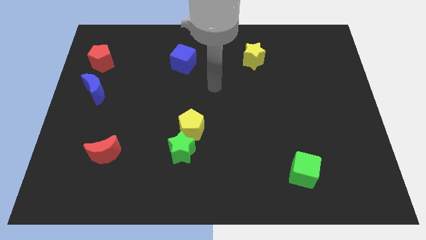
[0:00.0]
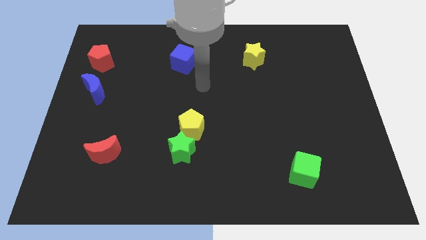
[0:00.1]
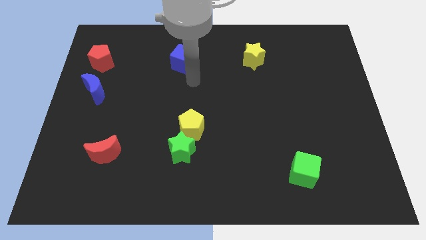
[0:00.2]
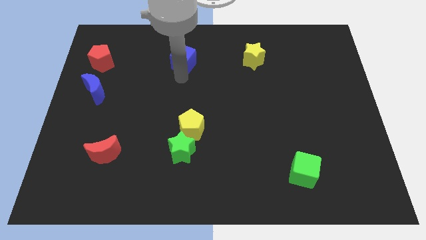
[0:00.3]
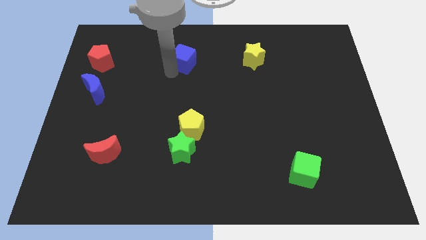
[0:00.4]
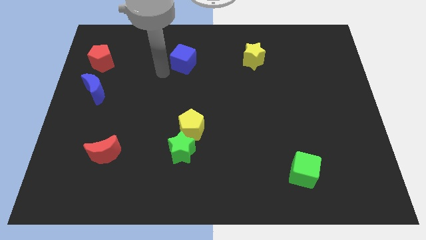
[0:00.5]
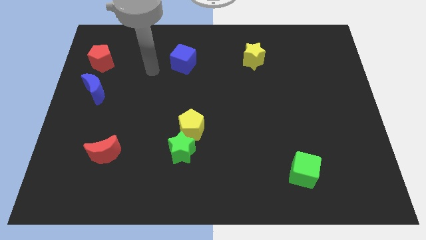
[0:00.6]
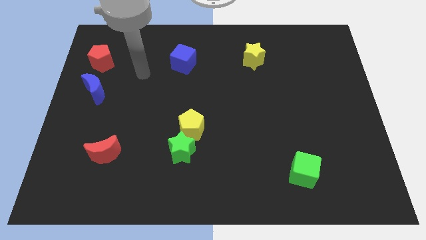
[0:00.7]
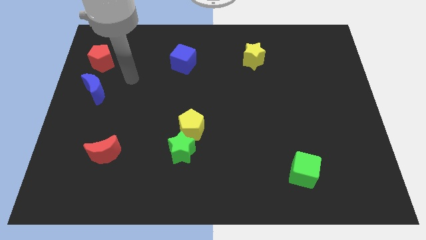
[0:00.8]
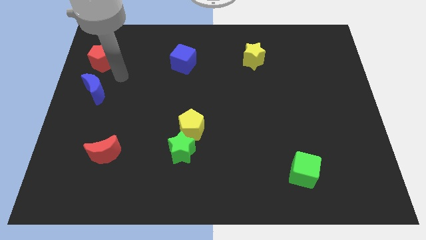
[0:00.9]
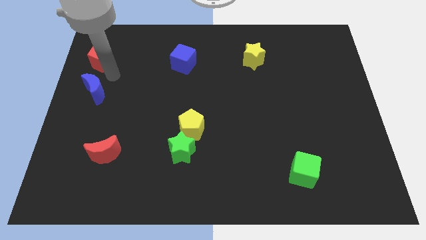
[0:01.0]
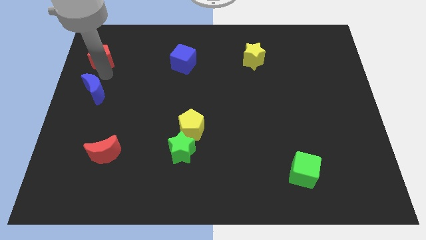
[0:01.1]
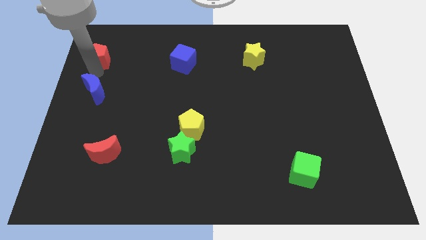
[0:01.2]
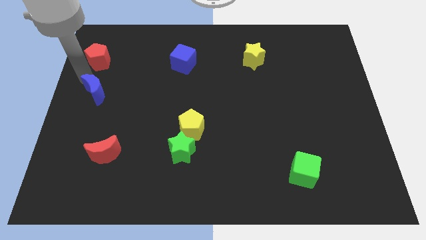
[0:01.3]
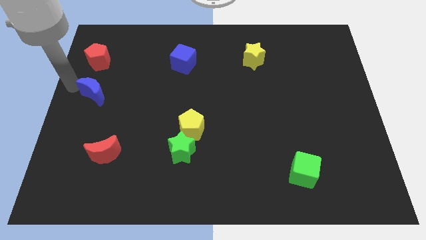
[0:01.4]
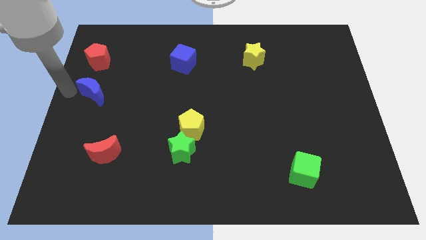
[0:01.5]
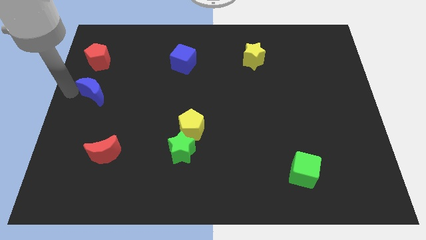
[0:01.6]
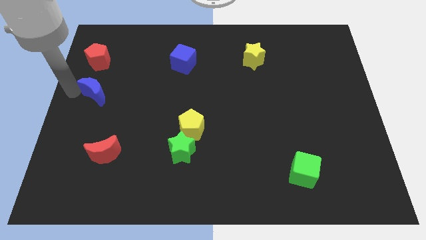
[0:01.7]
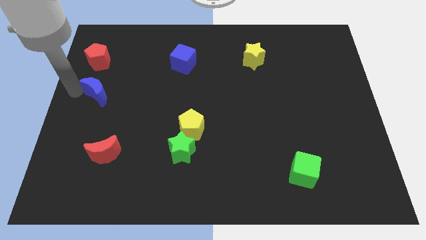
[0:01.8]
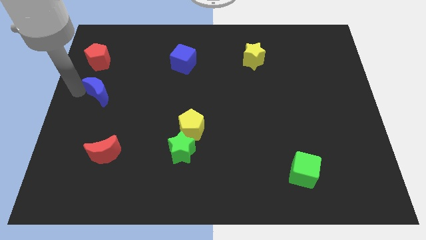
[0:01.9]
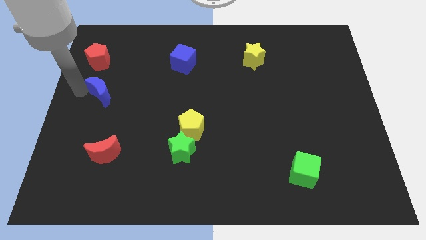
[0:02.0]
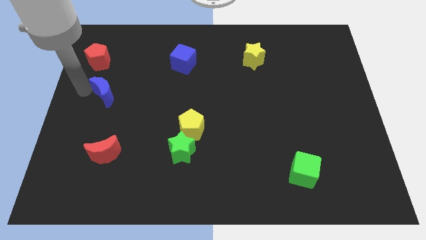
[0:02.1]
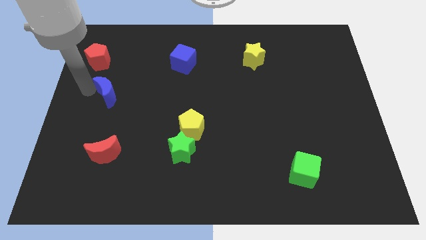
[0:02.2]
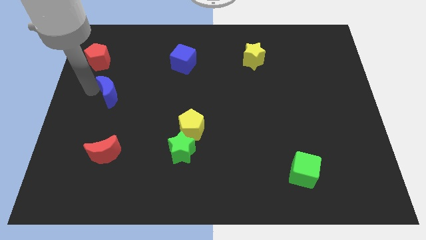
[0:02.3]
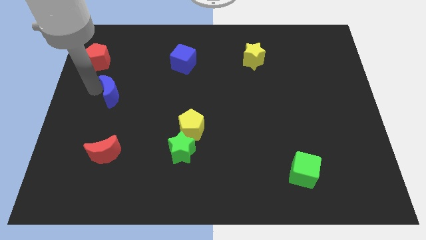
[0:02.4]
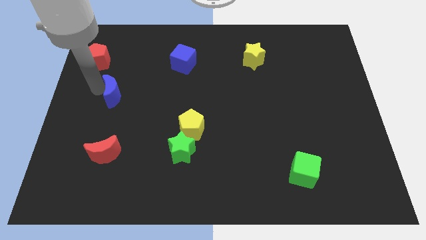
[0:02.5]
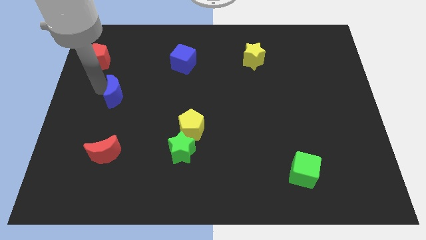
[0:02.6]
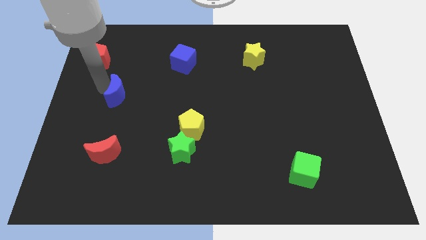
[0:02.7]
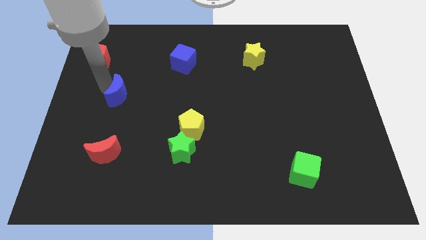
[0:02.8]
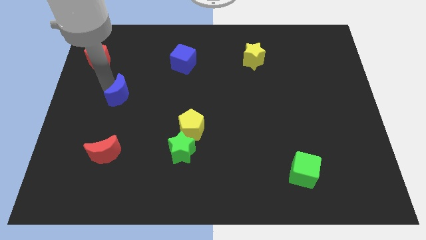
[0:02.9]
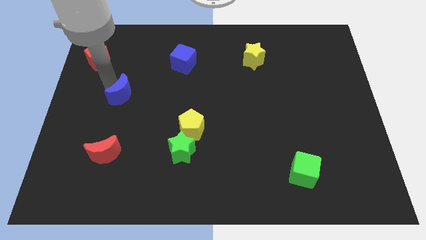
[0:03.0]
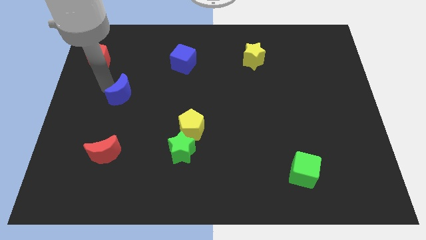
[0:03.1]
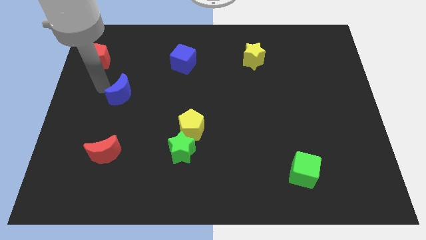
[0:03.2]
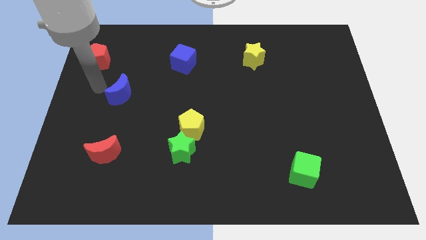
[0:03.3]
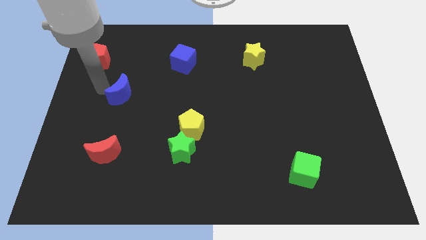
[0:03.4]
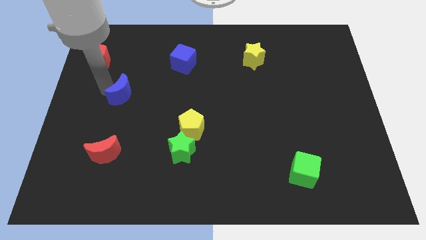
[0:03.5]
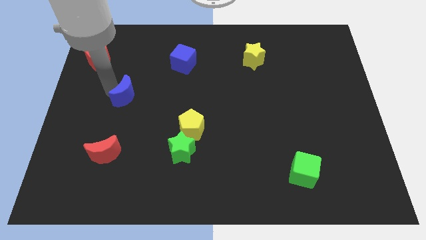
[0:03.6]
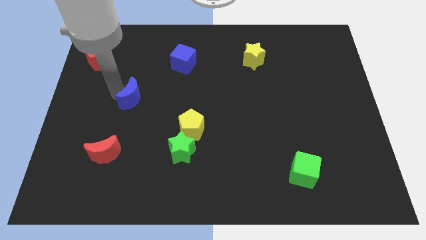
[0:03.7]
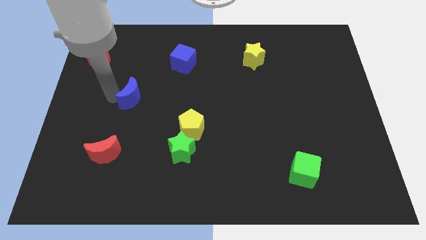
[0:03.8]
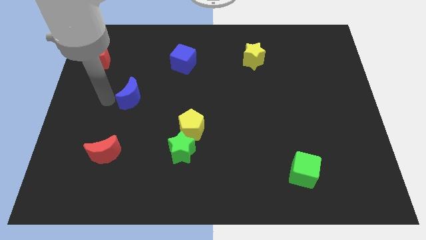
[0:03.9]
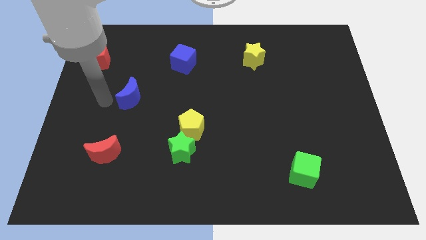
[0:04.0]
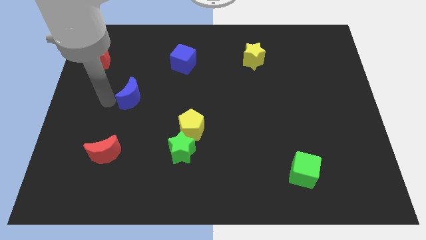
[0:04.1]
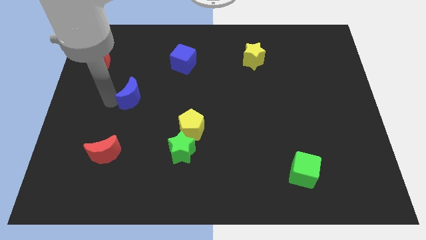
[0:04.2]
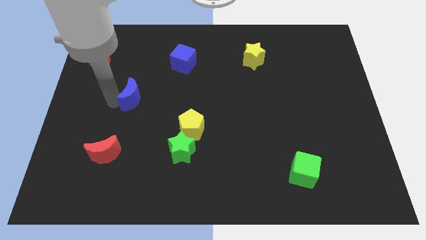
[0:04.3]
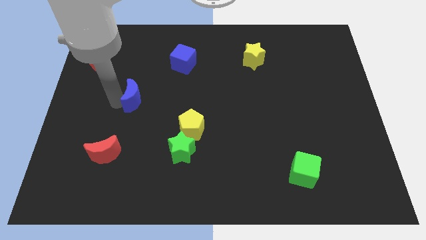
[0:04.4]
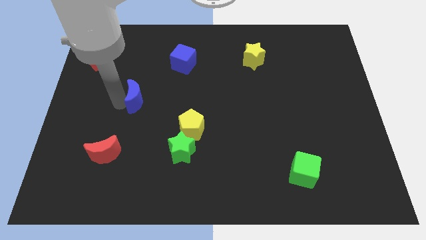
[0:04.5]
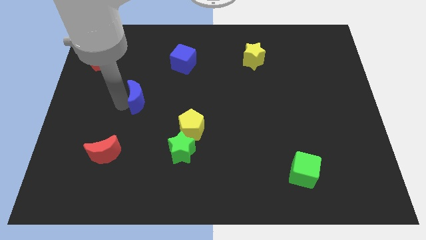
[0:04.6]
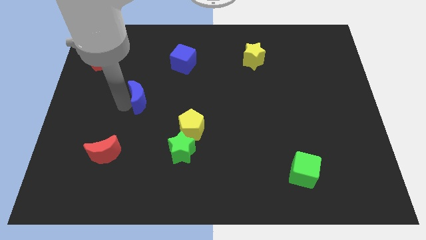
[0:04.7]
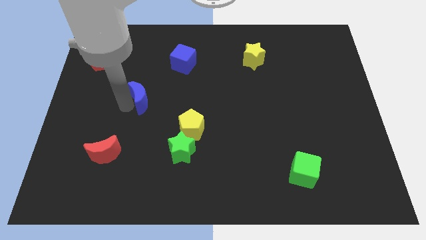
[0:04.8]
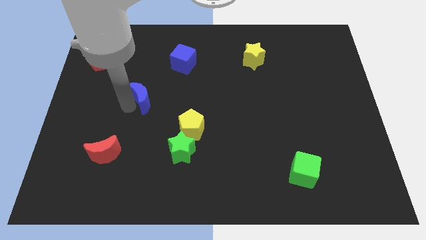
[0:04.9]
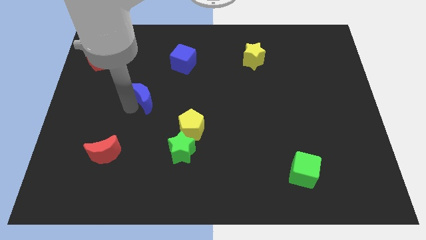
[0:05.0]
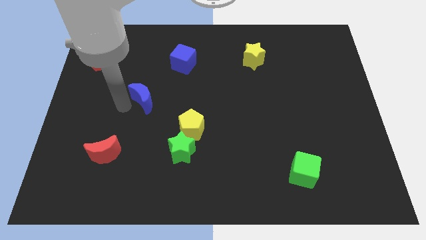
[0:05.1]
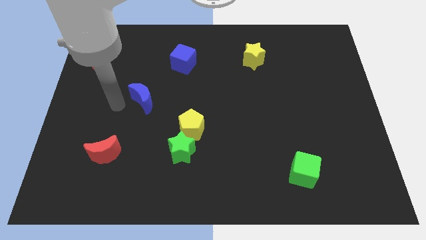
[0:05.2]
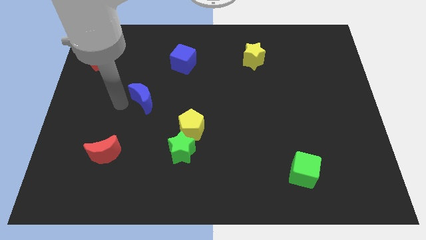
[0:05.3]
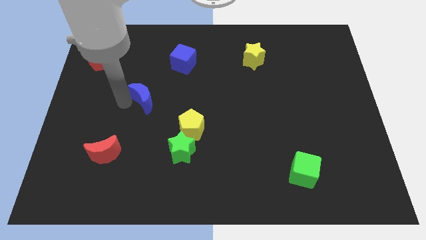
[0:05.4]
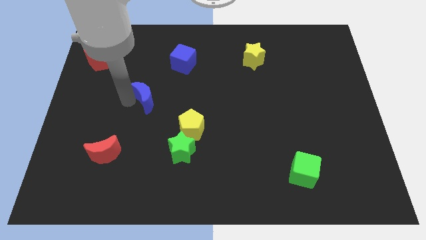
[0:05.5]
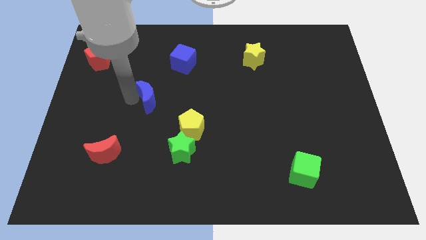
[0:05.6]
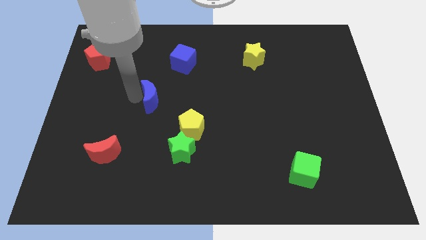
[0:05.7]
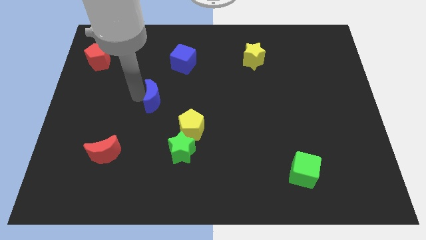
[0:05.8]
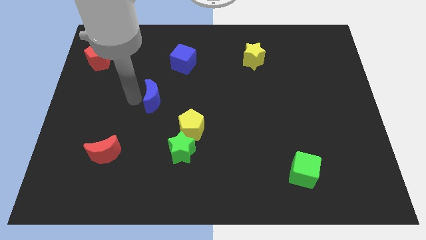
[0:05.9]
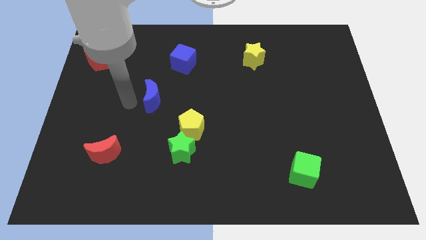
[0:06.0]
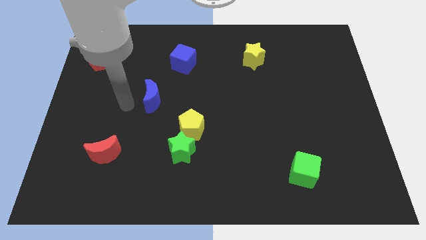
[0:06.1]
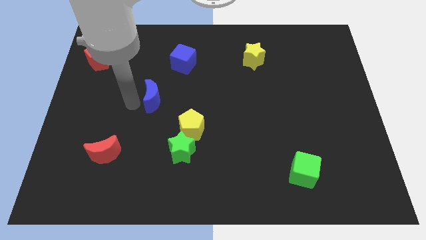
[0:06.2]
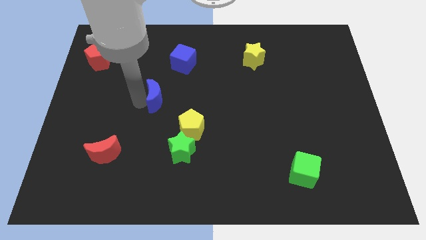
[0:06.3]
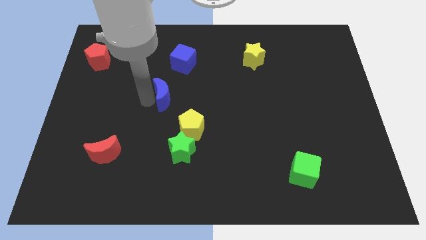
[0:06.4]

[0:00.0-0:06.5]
push the blue moon to the bottom side of the blue cube
